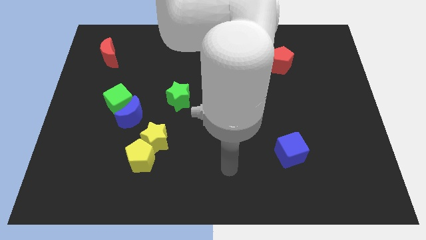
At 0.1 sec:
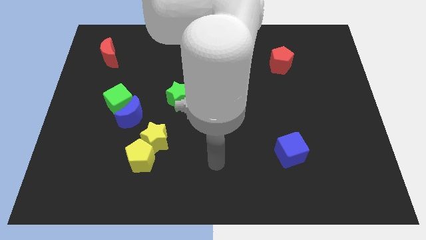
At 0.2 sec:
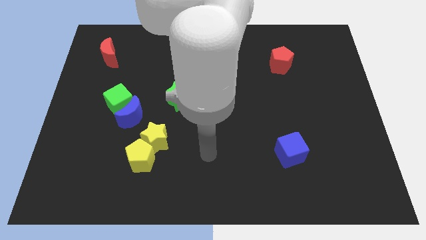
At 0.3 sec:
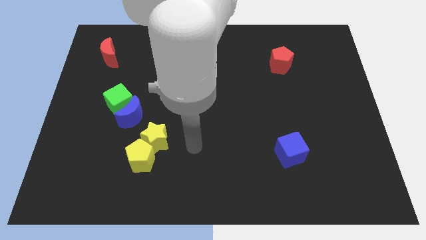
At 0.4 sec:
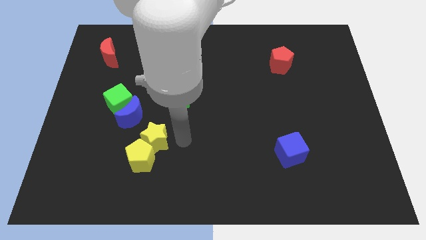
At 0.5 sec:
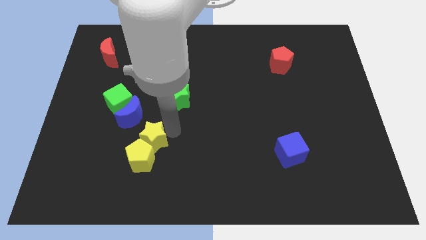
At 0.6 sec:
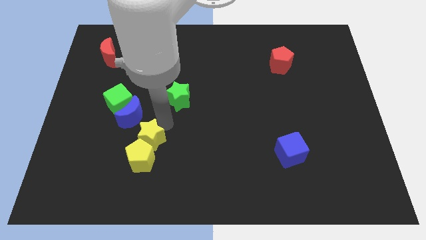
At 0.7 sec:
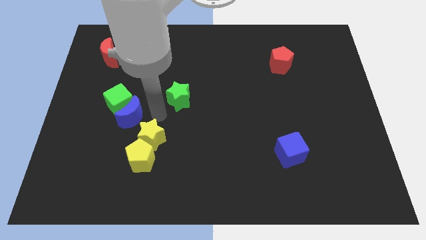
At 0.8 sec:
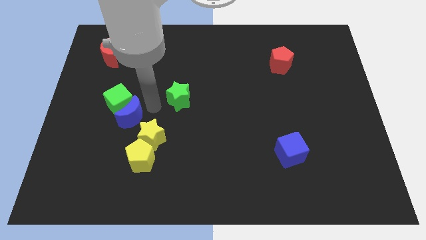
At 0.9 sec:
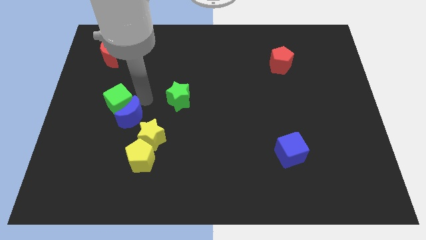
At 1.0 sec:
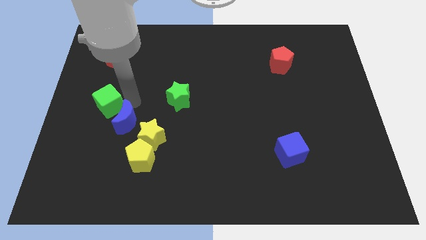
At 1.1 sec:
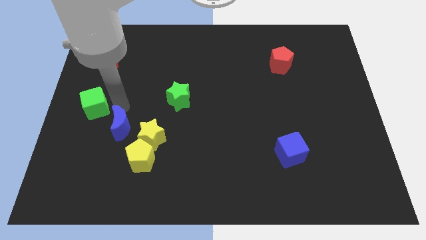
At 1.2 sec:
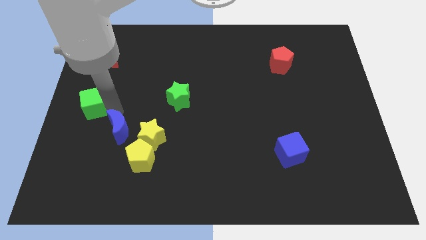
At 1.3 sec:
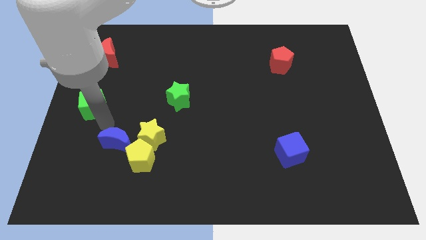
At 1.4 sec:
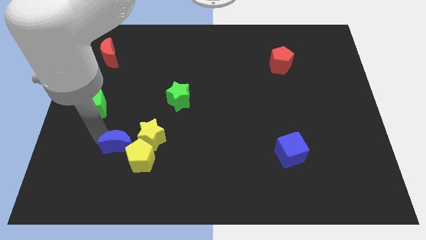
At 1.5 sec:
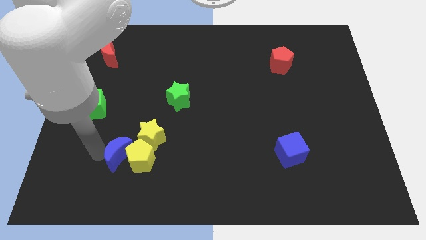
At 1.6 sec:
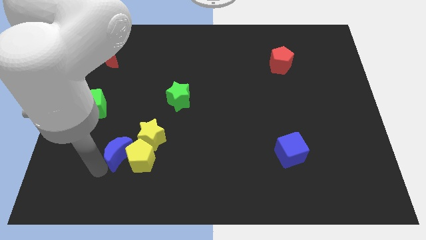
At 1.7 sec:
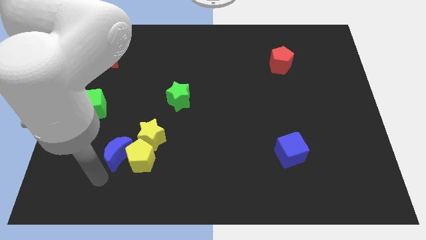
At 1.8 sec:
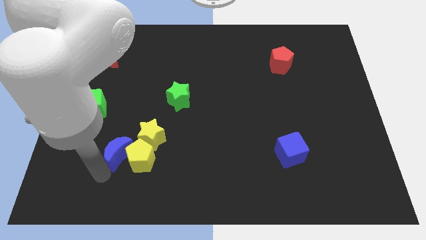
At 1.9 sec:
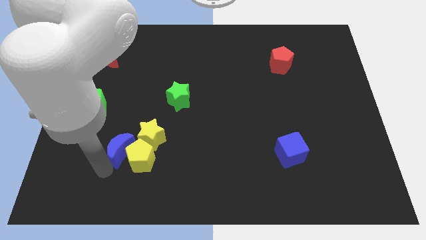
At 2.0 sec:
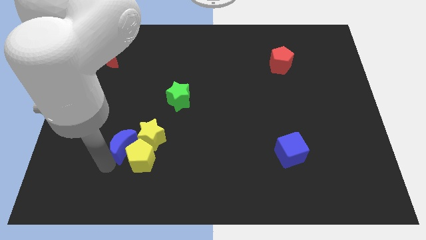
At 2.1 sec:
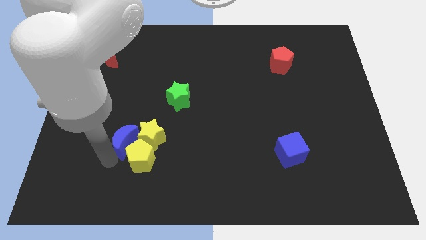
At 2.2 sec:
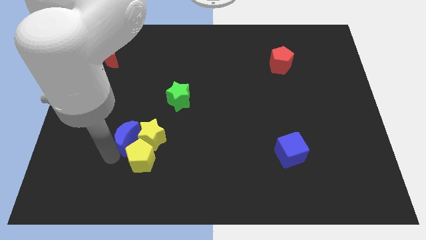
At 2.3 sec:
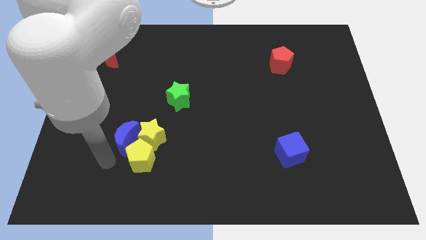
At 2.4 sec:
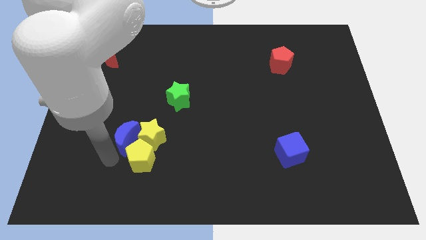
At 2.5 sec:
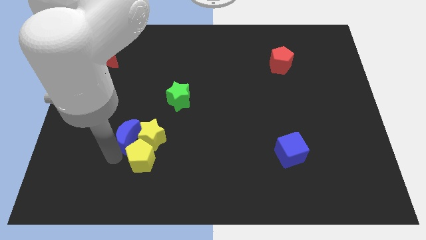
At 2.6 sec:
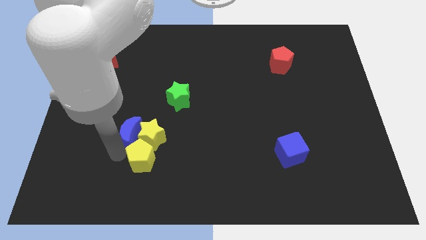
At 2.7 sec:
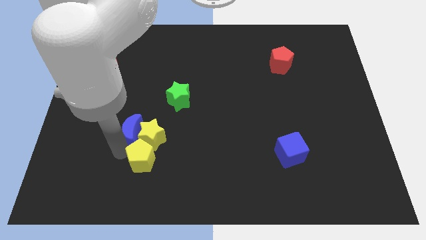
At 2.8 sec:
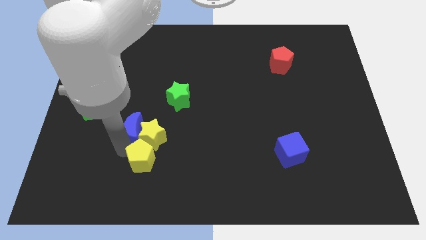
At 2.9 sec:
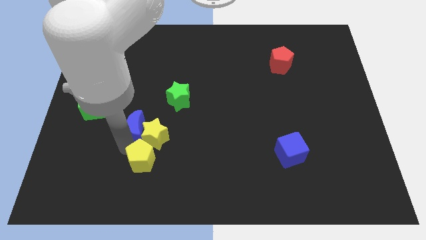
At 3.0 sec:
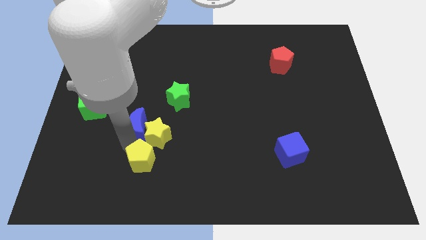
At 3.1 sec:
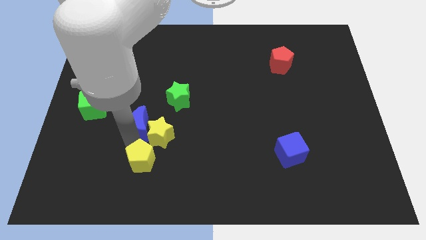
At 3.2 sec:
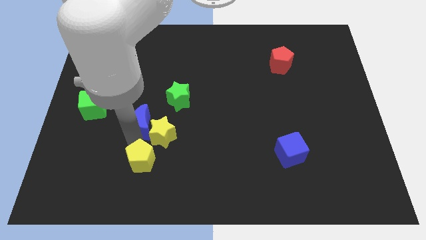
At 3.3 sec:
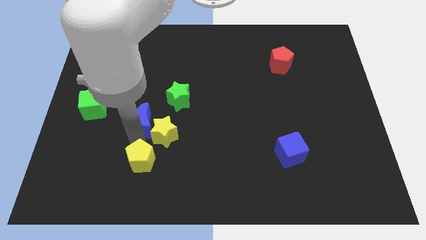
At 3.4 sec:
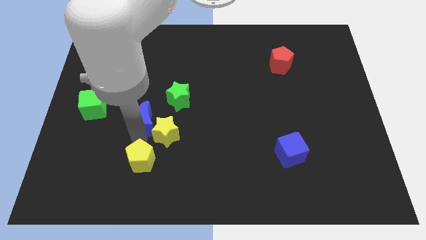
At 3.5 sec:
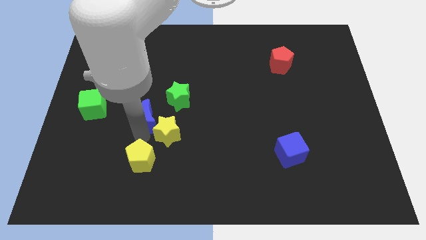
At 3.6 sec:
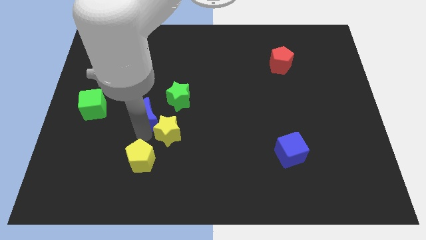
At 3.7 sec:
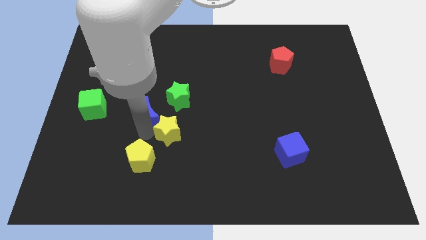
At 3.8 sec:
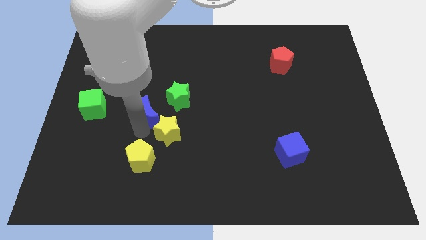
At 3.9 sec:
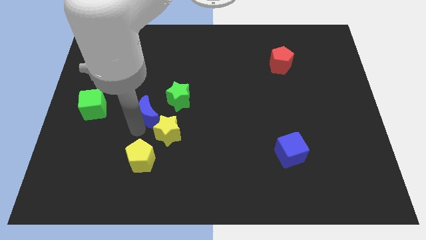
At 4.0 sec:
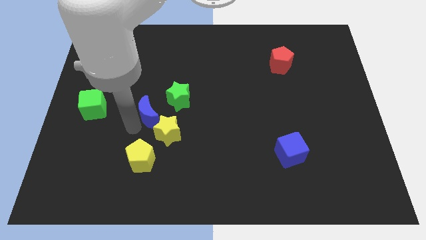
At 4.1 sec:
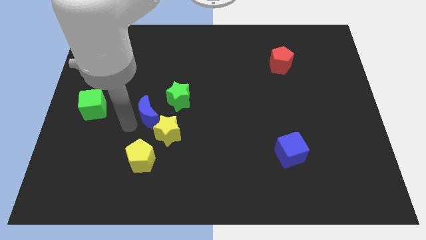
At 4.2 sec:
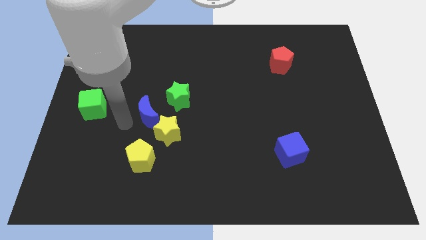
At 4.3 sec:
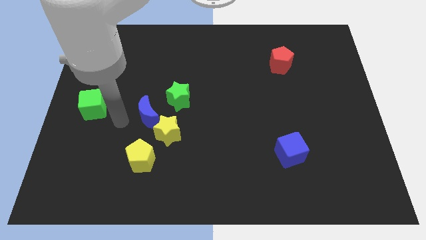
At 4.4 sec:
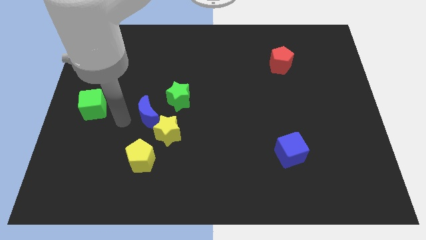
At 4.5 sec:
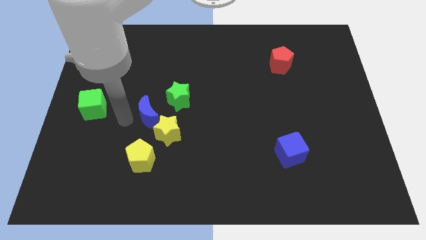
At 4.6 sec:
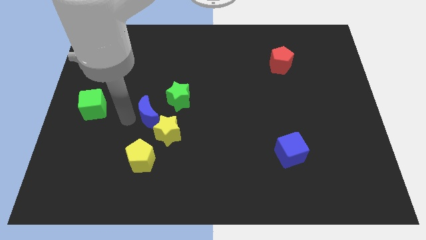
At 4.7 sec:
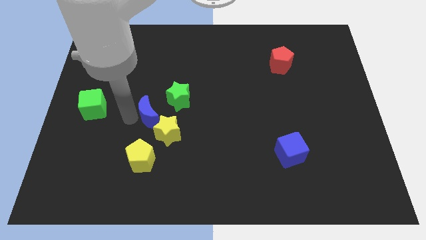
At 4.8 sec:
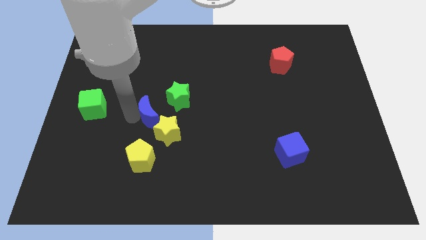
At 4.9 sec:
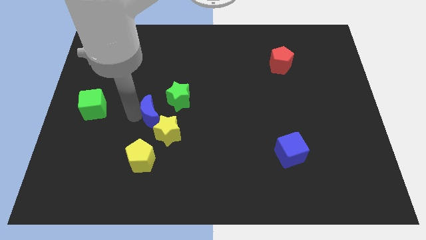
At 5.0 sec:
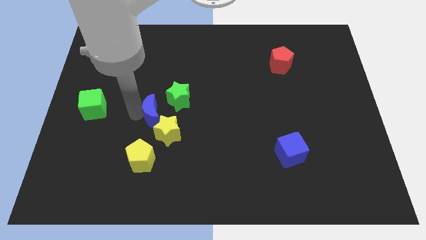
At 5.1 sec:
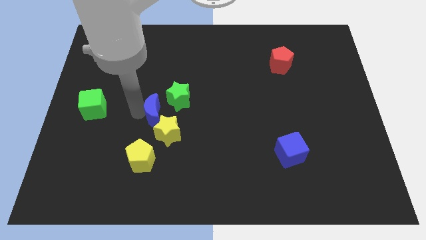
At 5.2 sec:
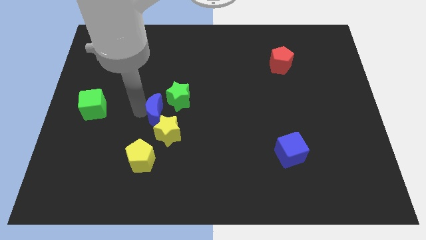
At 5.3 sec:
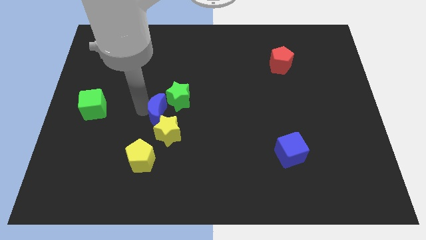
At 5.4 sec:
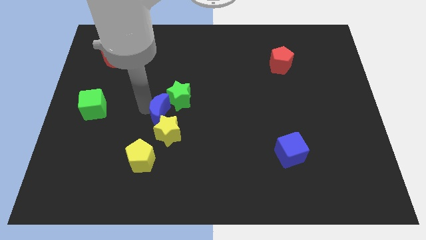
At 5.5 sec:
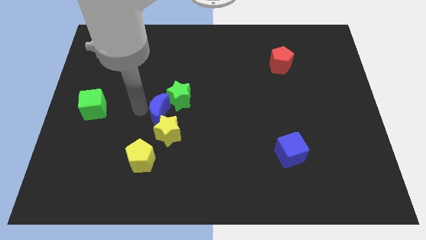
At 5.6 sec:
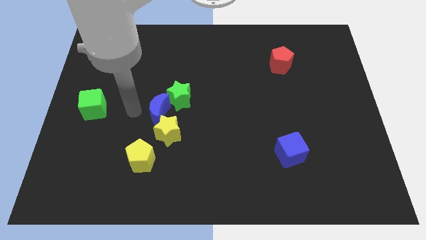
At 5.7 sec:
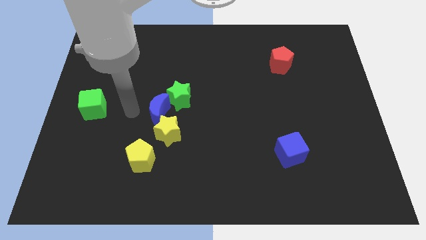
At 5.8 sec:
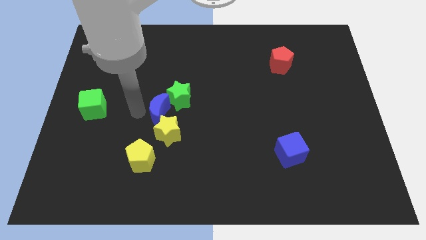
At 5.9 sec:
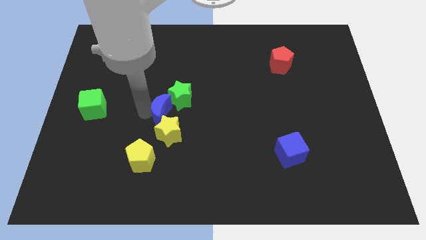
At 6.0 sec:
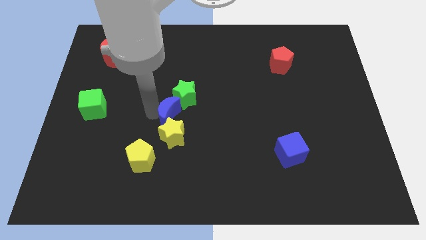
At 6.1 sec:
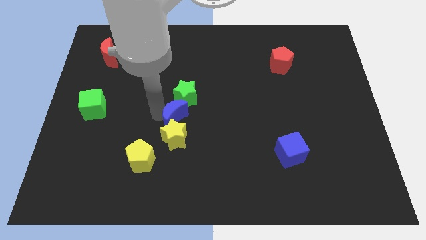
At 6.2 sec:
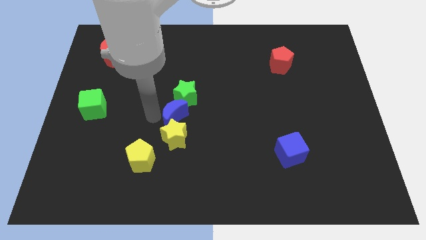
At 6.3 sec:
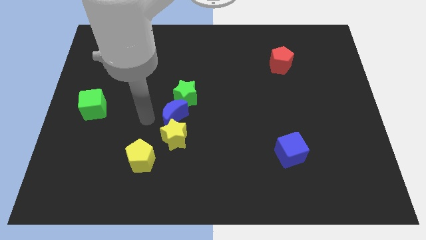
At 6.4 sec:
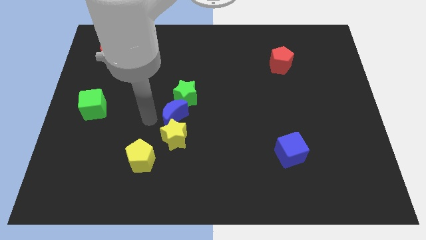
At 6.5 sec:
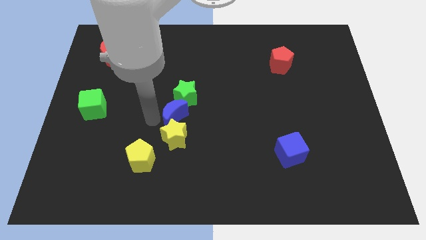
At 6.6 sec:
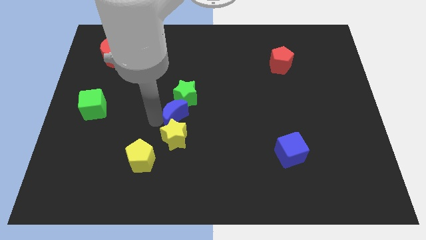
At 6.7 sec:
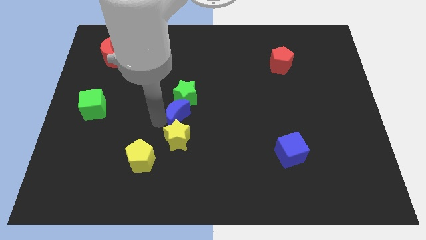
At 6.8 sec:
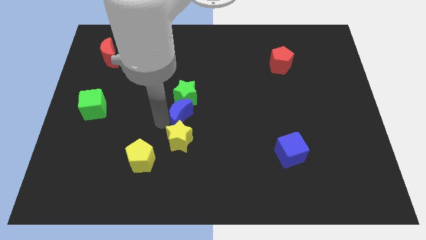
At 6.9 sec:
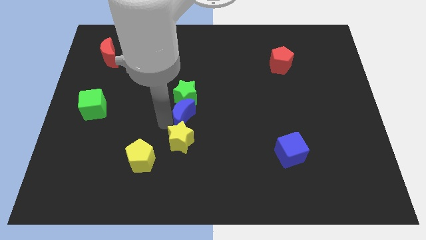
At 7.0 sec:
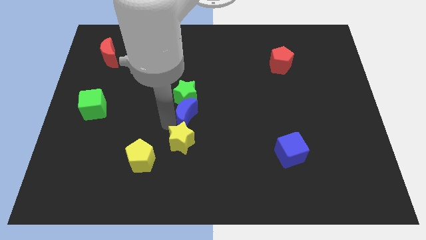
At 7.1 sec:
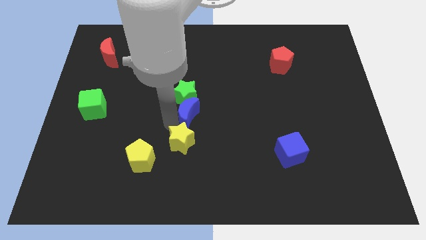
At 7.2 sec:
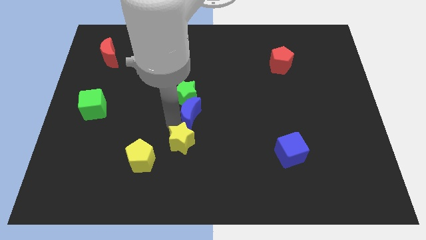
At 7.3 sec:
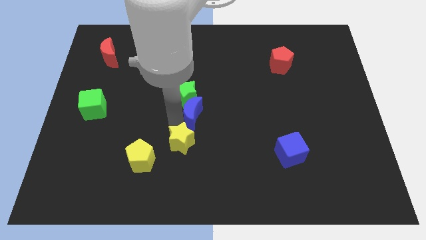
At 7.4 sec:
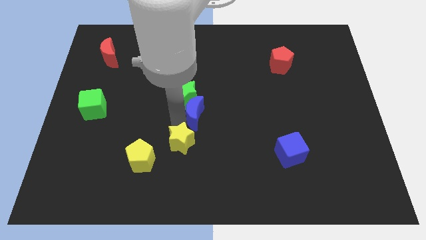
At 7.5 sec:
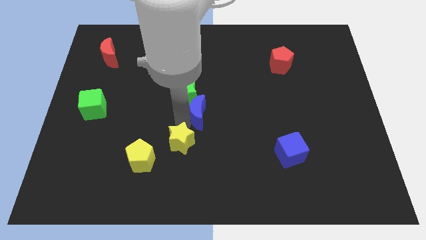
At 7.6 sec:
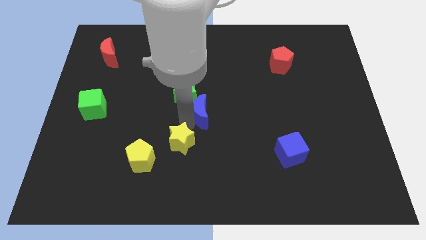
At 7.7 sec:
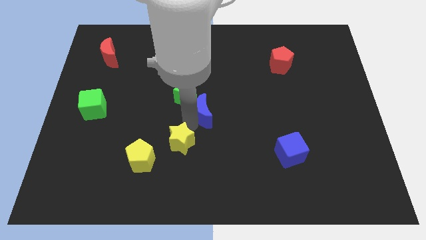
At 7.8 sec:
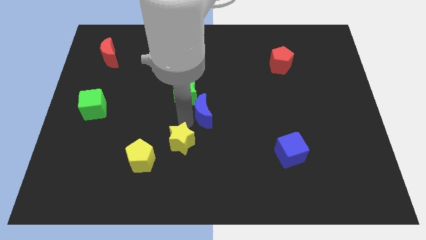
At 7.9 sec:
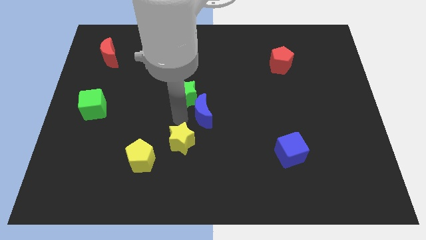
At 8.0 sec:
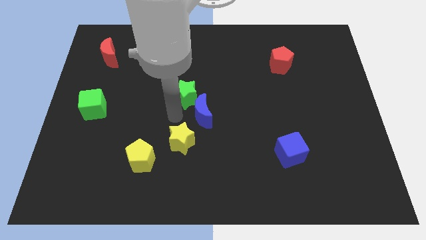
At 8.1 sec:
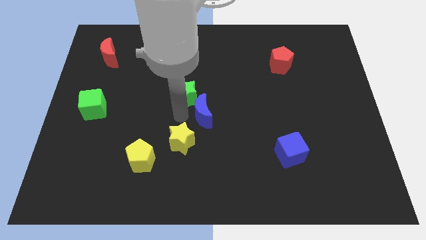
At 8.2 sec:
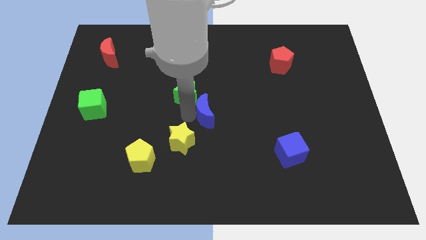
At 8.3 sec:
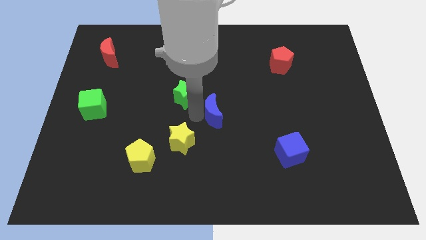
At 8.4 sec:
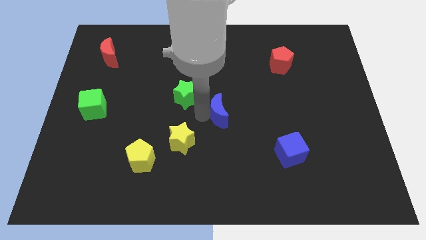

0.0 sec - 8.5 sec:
move the blue moon to the right
